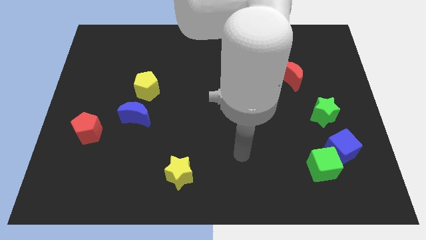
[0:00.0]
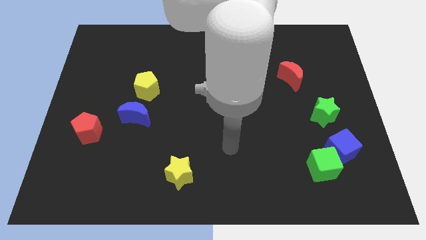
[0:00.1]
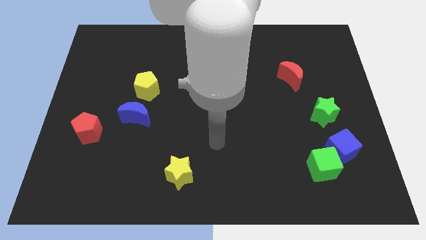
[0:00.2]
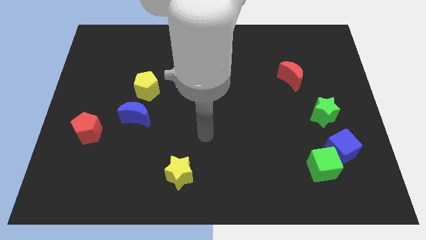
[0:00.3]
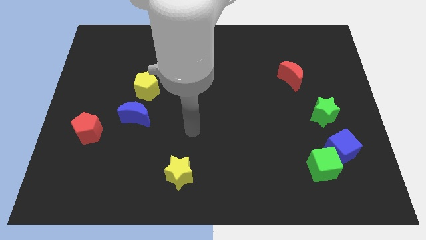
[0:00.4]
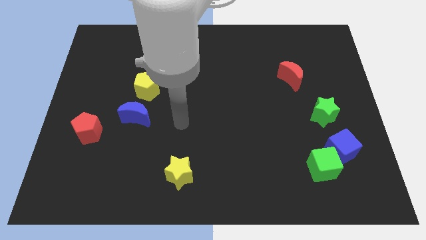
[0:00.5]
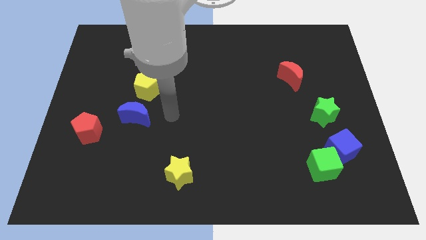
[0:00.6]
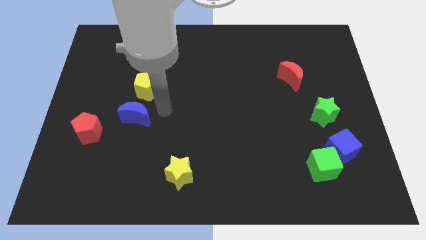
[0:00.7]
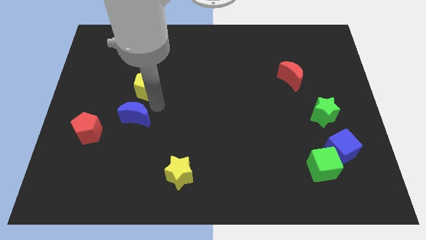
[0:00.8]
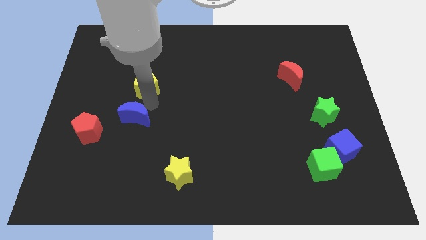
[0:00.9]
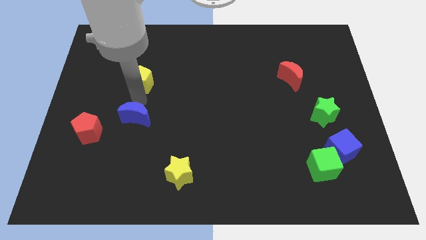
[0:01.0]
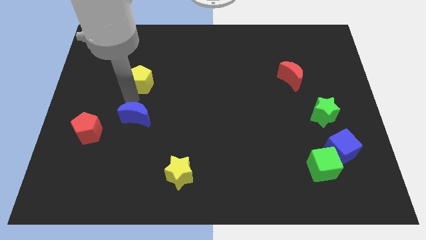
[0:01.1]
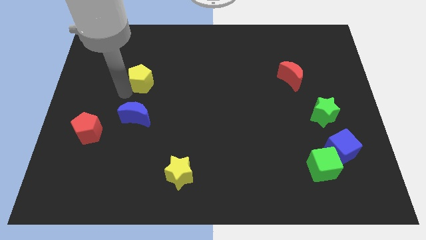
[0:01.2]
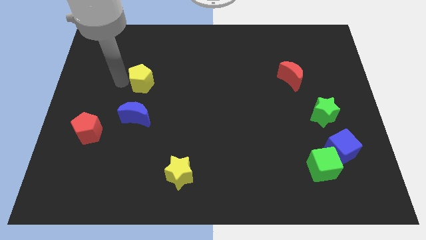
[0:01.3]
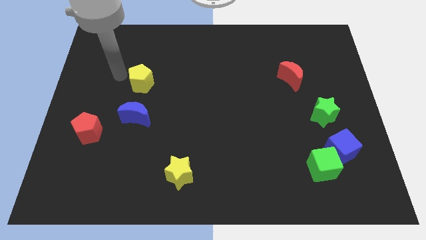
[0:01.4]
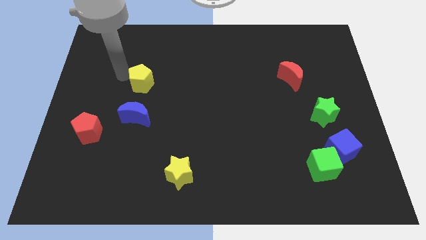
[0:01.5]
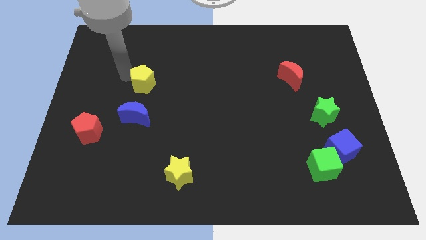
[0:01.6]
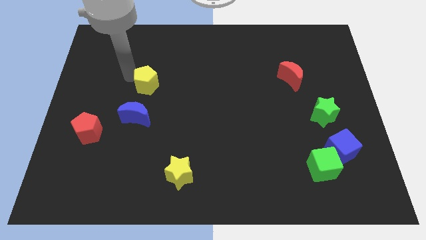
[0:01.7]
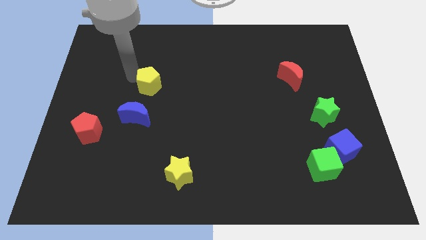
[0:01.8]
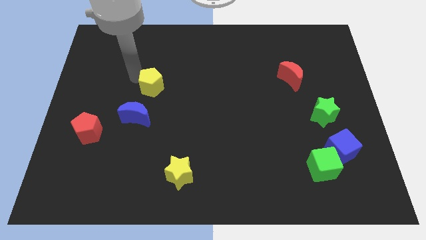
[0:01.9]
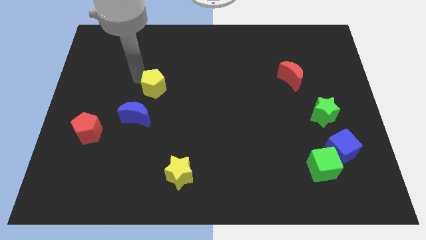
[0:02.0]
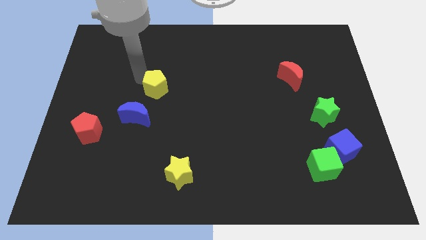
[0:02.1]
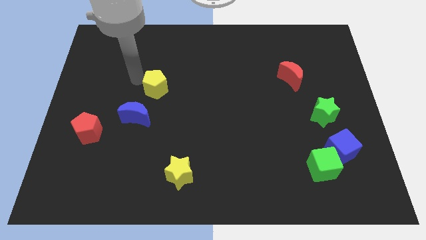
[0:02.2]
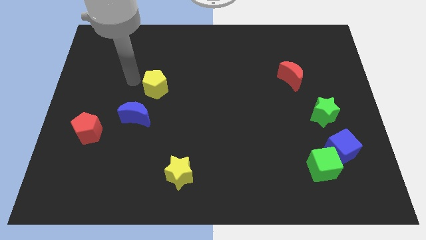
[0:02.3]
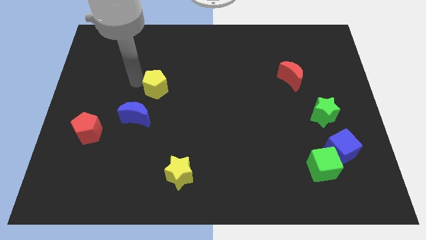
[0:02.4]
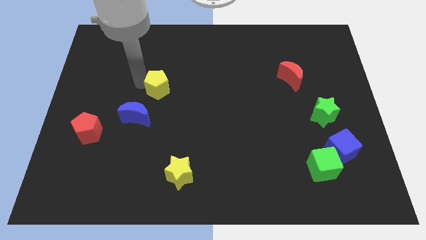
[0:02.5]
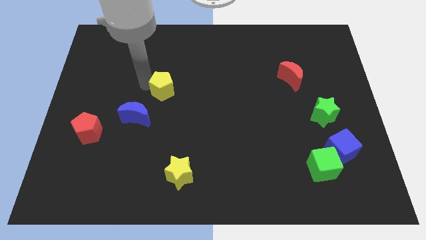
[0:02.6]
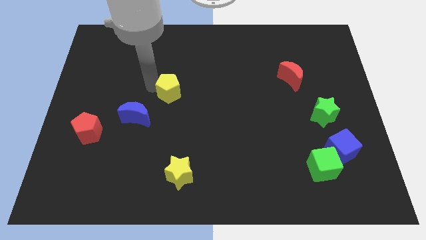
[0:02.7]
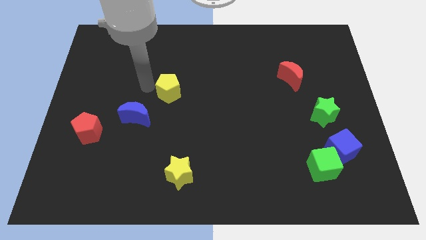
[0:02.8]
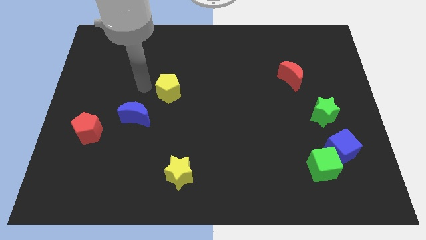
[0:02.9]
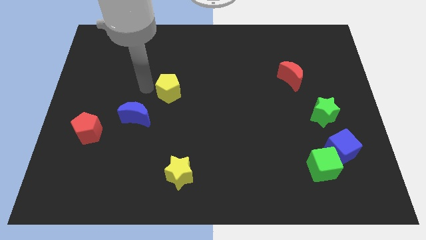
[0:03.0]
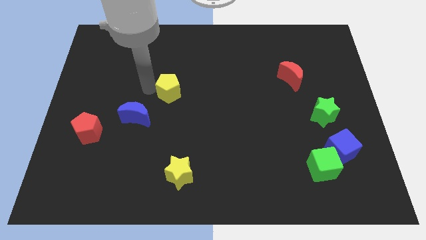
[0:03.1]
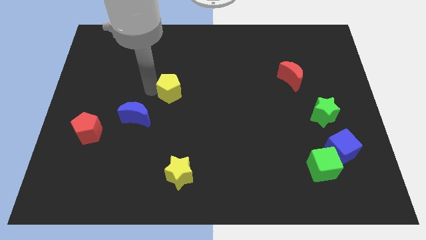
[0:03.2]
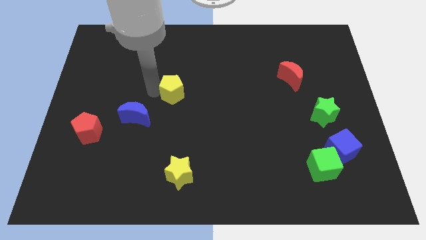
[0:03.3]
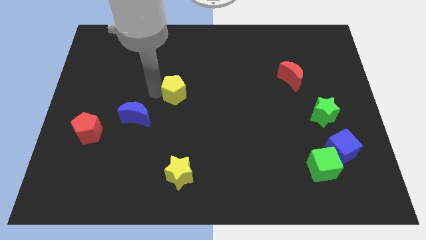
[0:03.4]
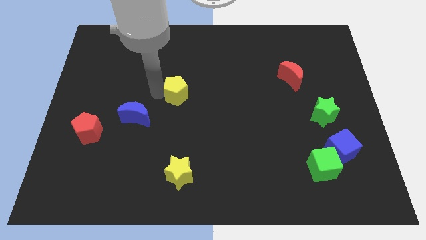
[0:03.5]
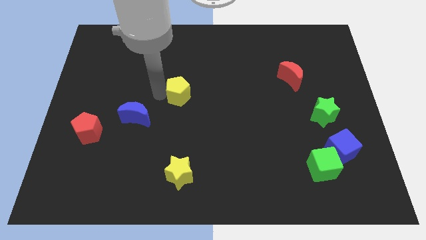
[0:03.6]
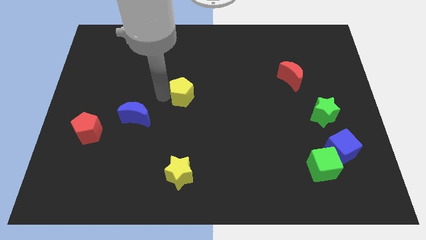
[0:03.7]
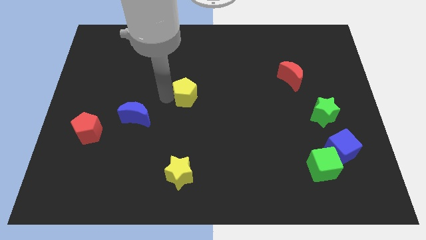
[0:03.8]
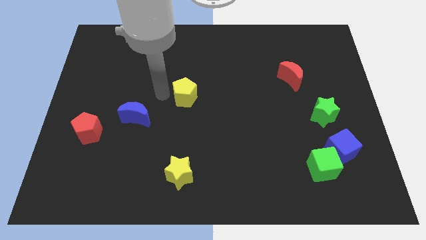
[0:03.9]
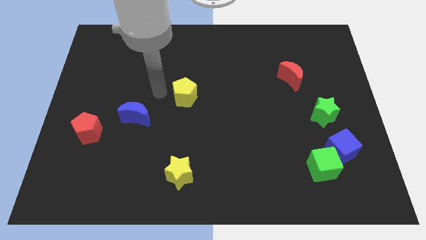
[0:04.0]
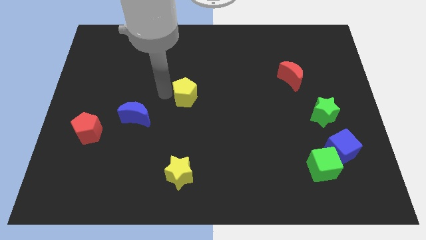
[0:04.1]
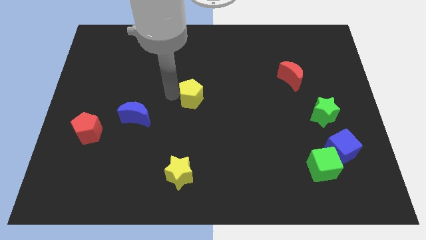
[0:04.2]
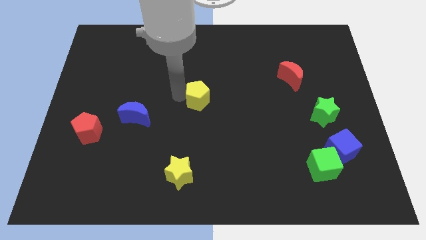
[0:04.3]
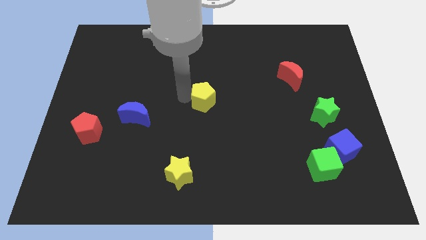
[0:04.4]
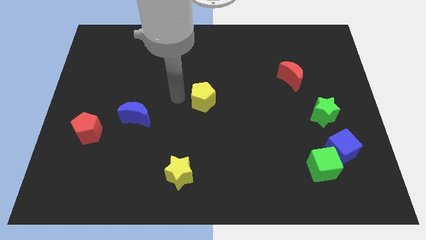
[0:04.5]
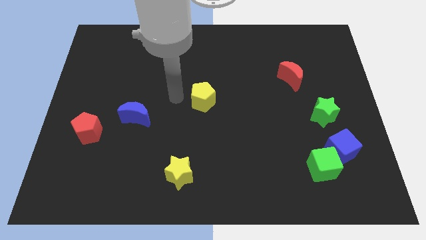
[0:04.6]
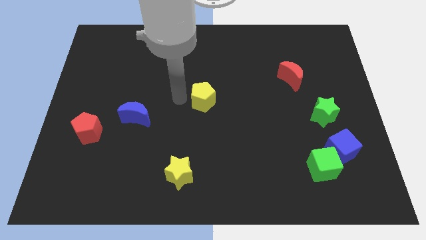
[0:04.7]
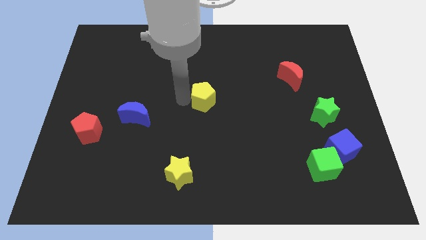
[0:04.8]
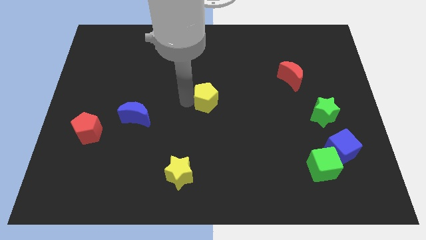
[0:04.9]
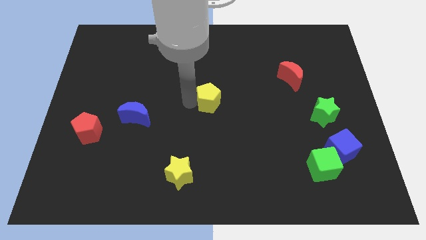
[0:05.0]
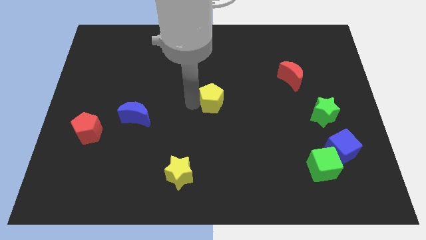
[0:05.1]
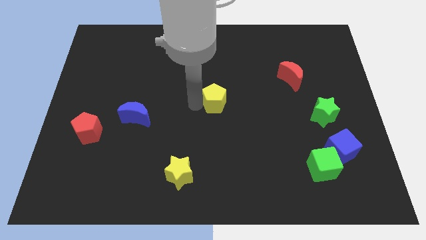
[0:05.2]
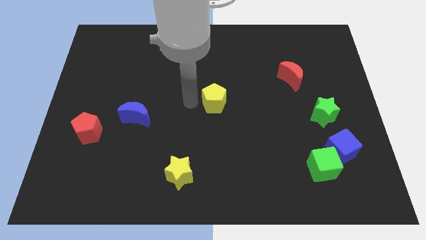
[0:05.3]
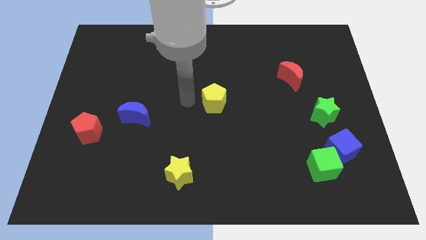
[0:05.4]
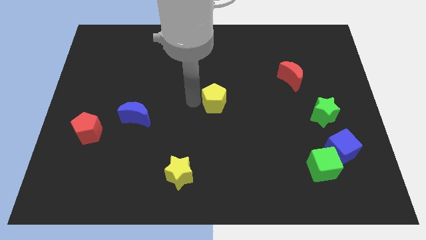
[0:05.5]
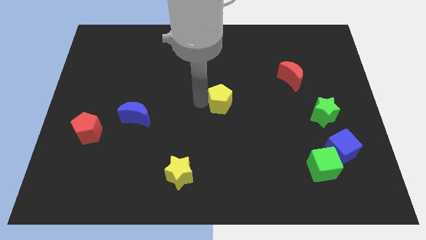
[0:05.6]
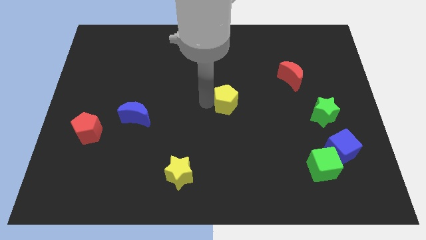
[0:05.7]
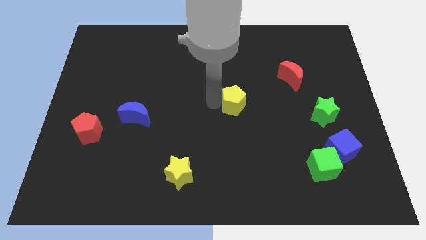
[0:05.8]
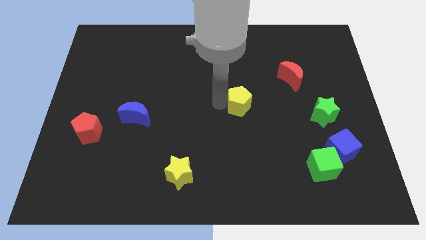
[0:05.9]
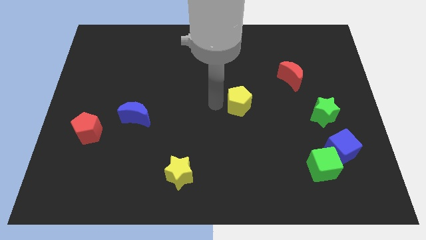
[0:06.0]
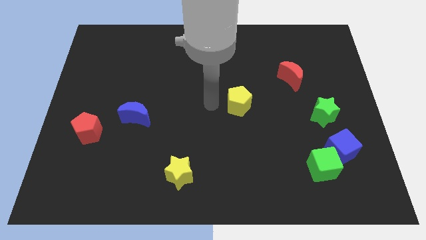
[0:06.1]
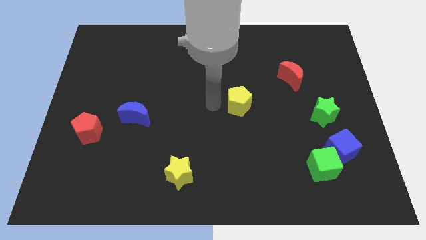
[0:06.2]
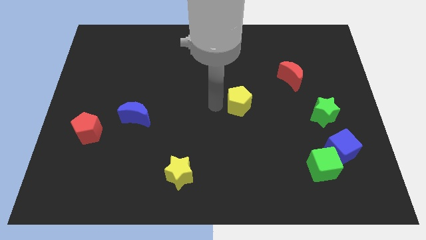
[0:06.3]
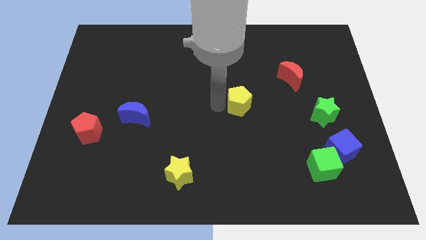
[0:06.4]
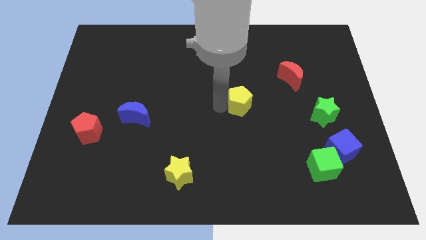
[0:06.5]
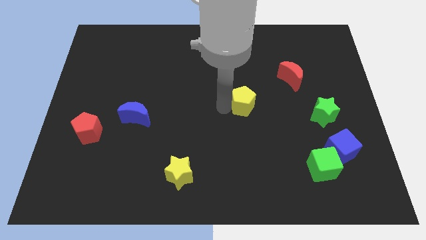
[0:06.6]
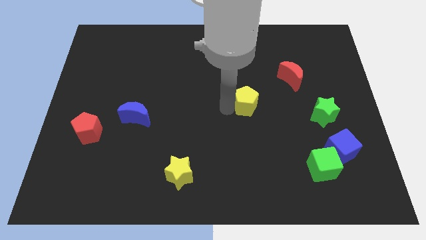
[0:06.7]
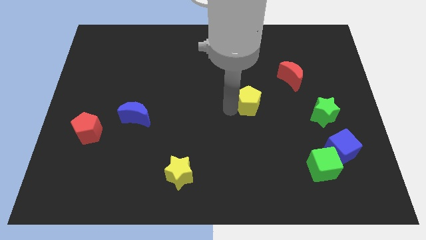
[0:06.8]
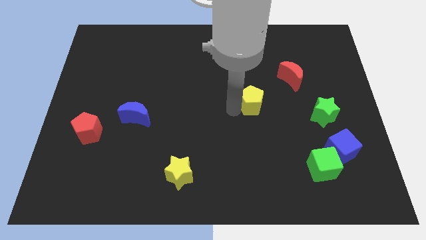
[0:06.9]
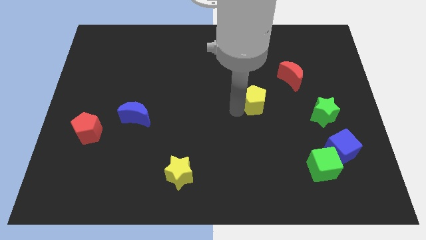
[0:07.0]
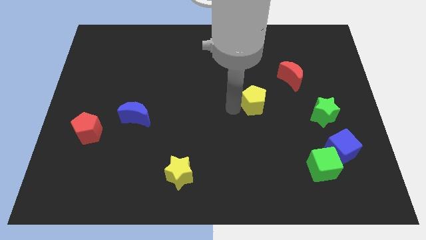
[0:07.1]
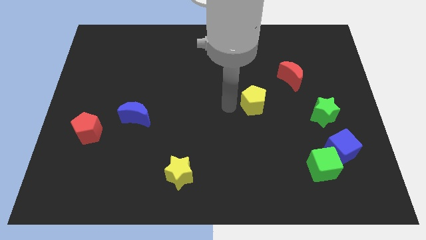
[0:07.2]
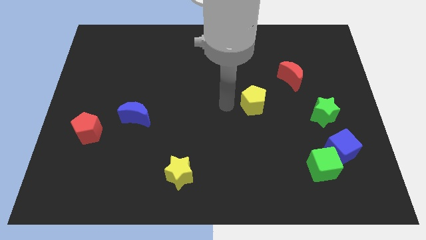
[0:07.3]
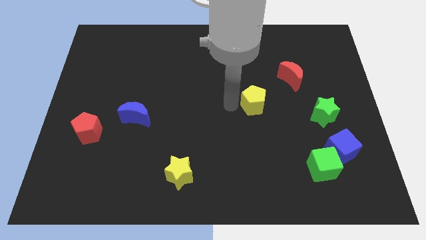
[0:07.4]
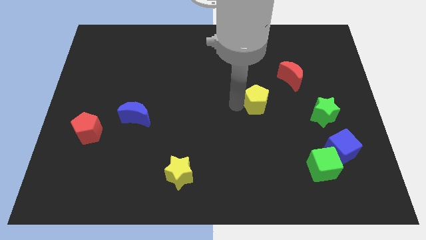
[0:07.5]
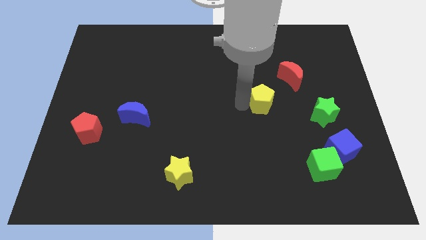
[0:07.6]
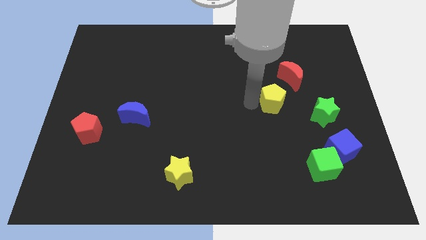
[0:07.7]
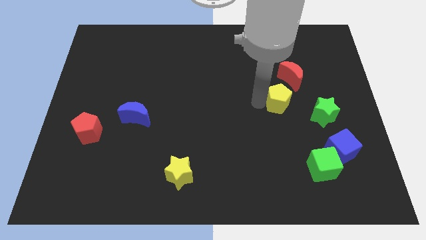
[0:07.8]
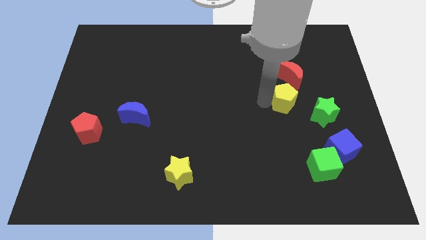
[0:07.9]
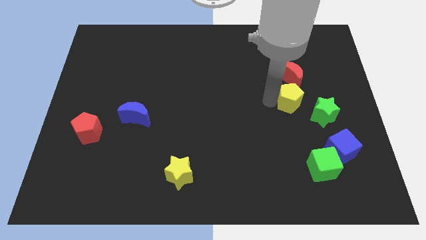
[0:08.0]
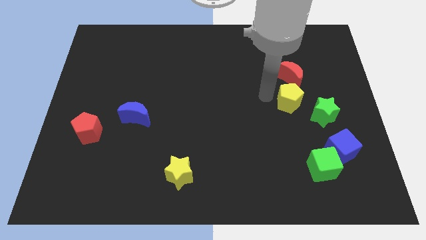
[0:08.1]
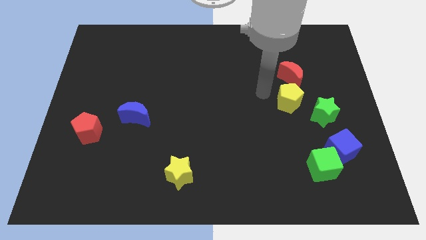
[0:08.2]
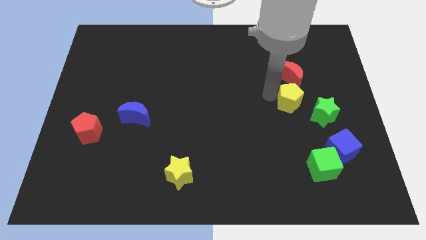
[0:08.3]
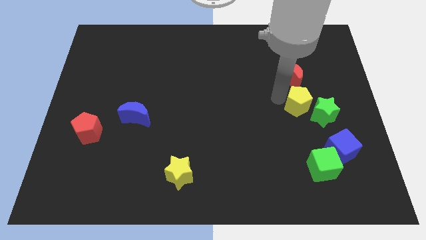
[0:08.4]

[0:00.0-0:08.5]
slide the yellow pentagon to the green star
